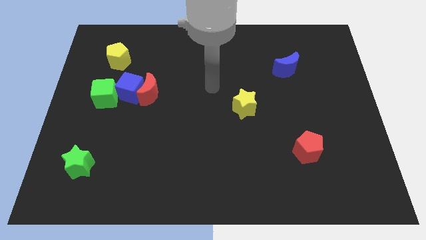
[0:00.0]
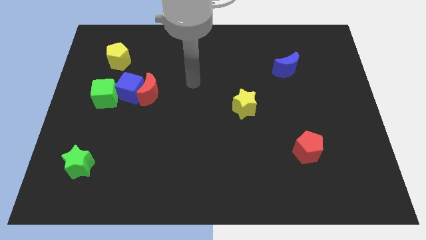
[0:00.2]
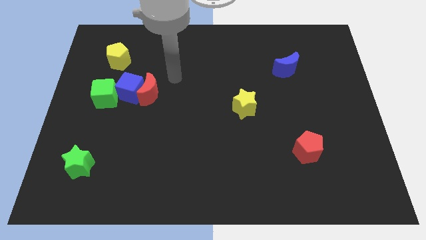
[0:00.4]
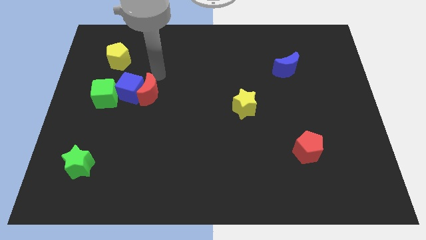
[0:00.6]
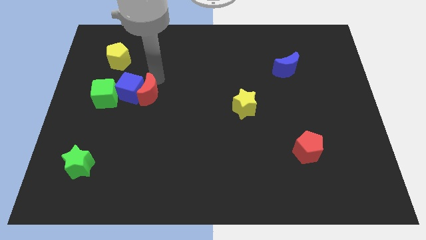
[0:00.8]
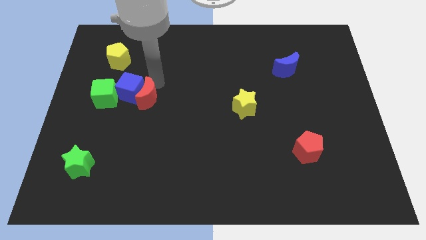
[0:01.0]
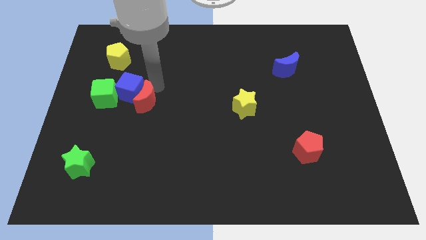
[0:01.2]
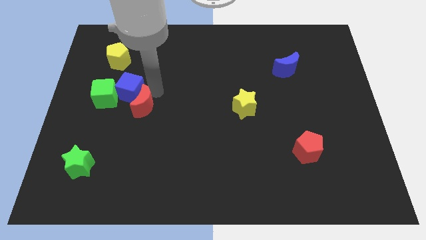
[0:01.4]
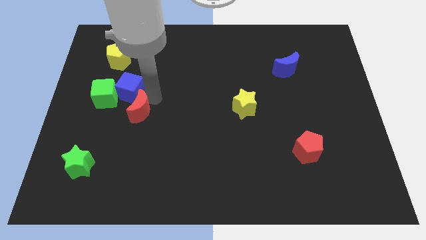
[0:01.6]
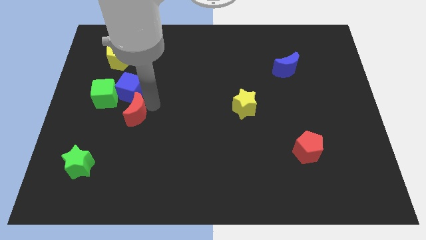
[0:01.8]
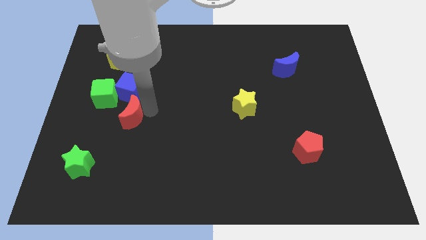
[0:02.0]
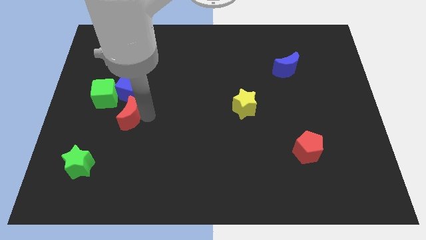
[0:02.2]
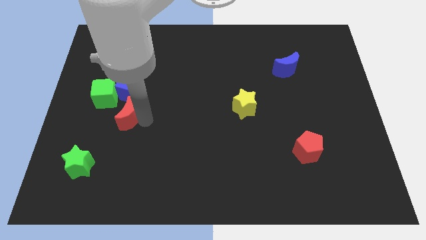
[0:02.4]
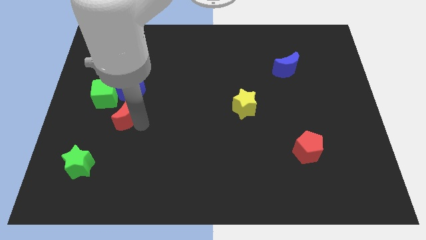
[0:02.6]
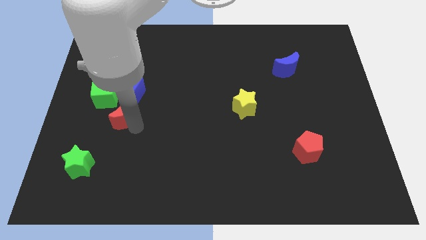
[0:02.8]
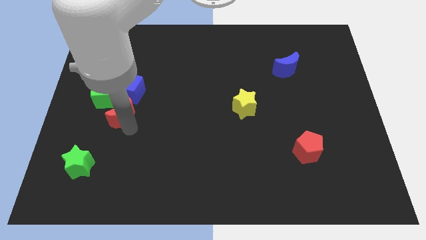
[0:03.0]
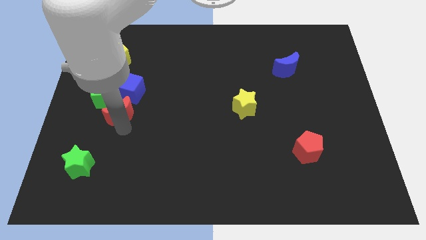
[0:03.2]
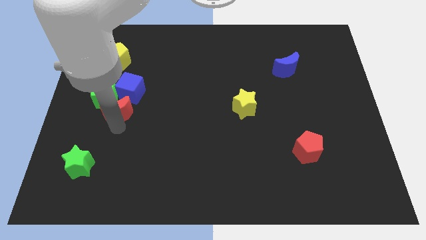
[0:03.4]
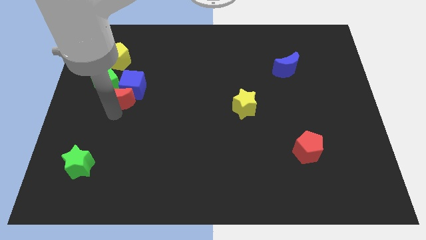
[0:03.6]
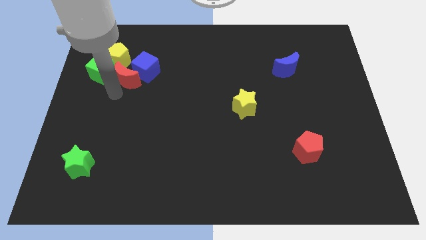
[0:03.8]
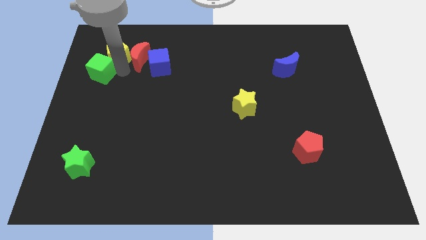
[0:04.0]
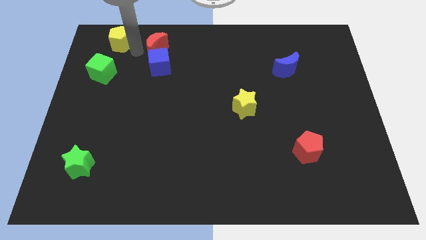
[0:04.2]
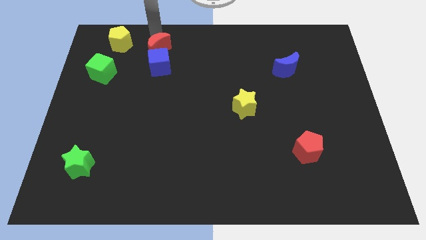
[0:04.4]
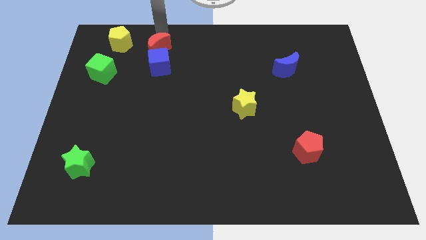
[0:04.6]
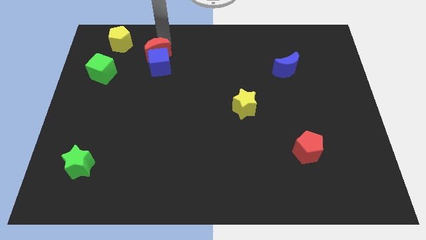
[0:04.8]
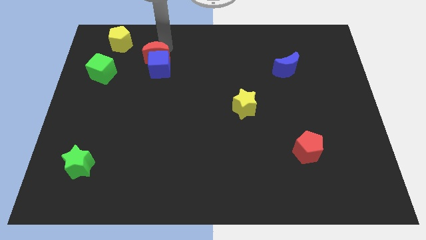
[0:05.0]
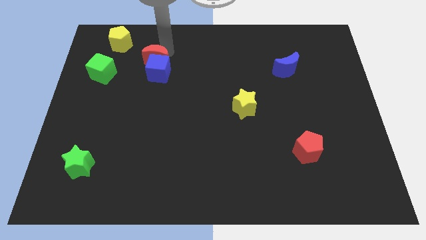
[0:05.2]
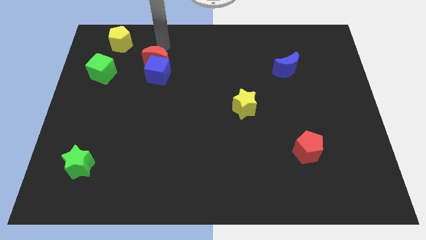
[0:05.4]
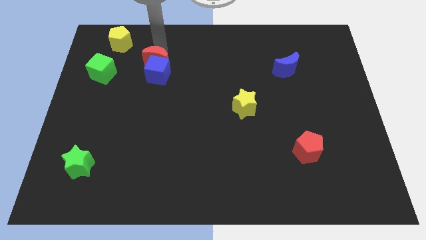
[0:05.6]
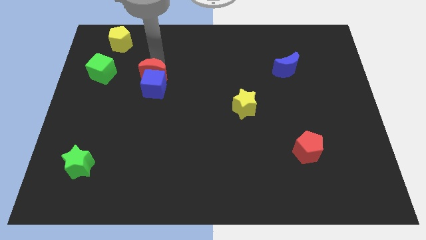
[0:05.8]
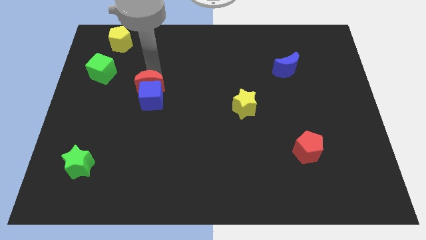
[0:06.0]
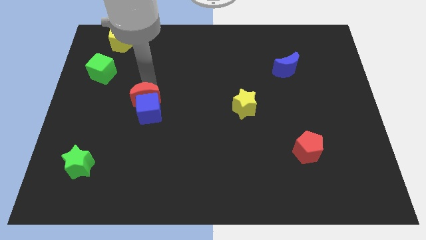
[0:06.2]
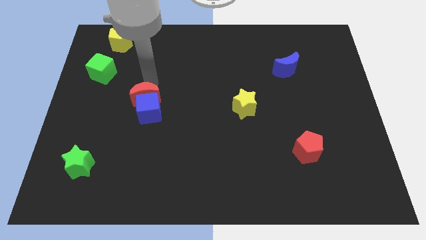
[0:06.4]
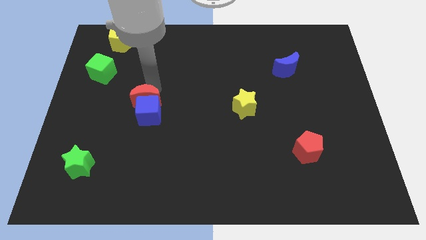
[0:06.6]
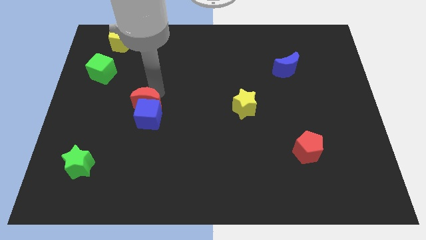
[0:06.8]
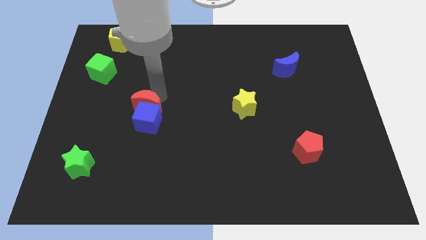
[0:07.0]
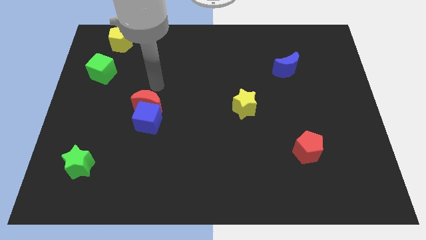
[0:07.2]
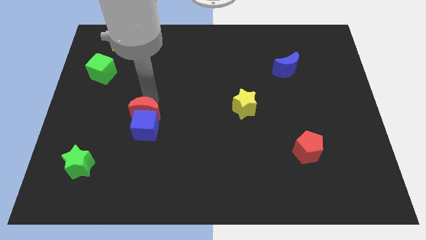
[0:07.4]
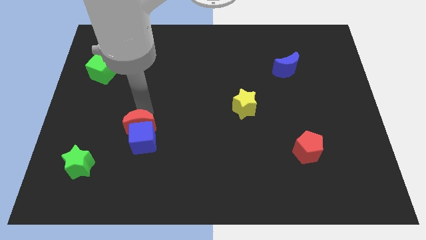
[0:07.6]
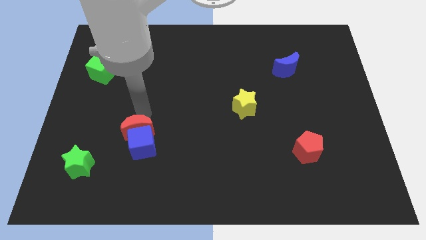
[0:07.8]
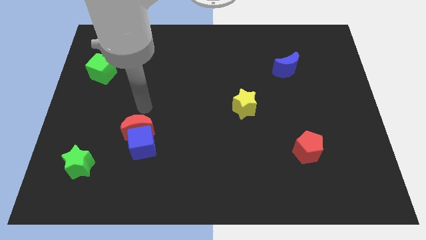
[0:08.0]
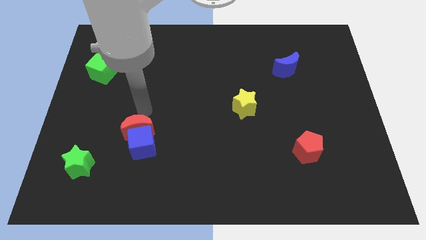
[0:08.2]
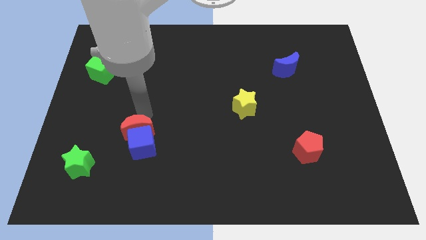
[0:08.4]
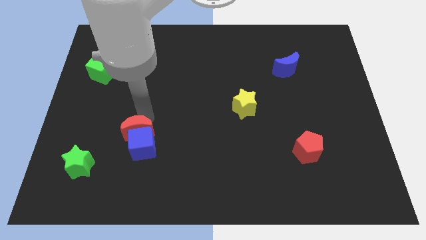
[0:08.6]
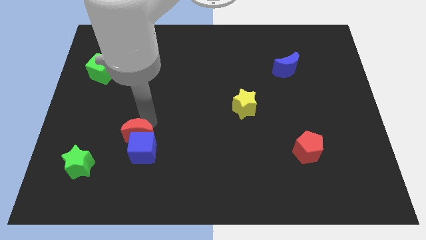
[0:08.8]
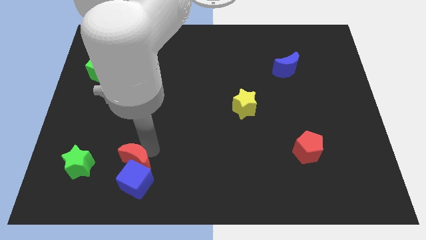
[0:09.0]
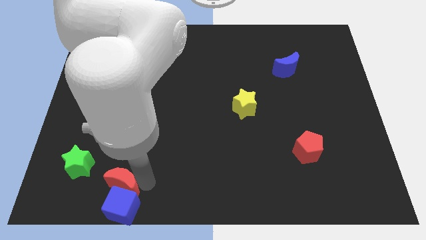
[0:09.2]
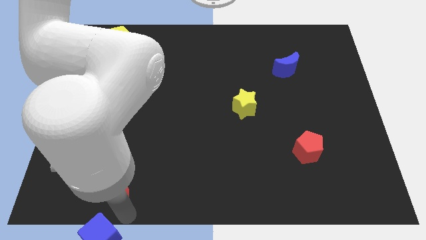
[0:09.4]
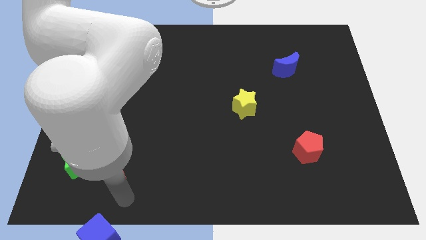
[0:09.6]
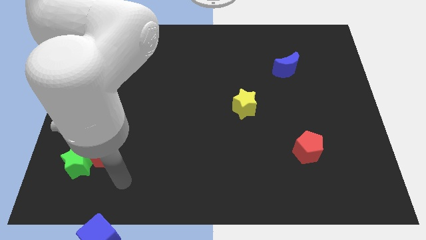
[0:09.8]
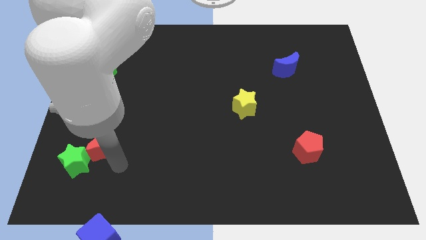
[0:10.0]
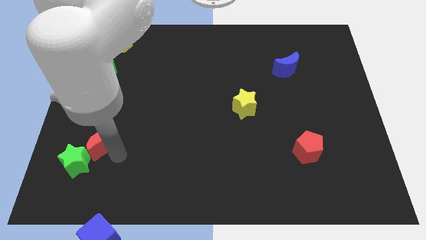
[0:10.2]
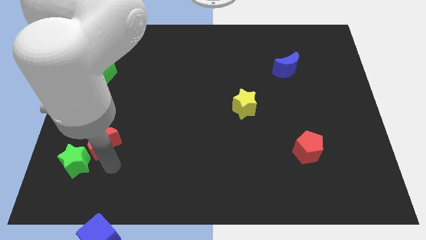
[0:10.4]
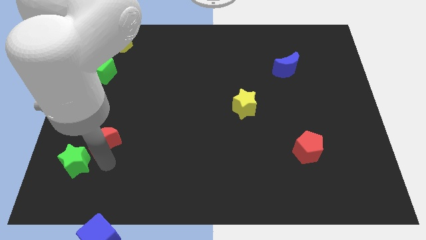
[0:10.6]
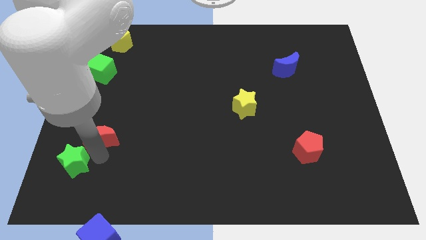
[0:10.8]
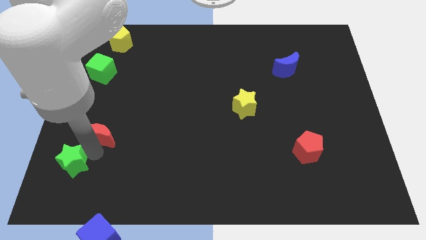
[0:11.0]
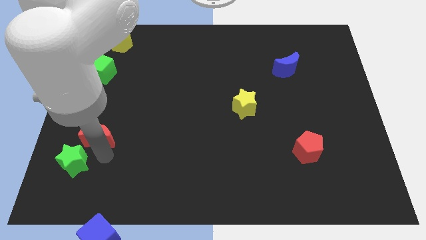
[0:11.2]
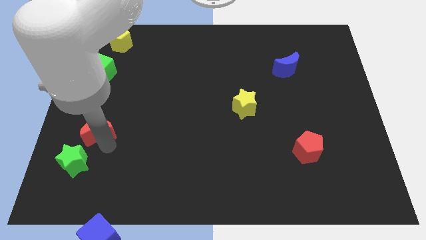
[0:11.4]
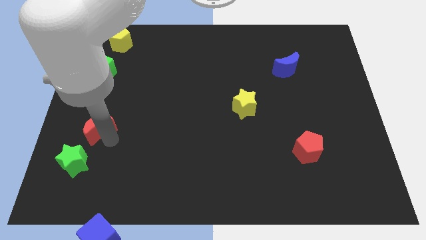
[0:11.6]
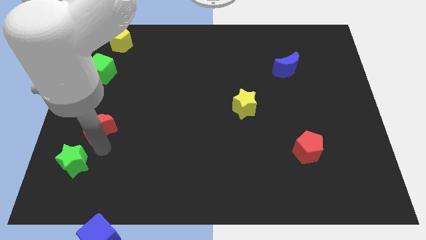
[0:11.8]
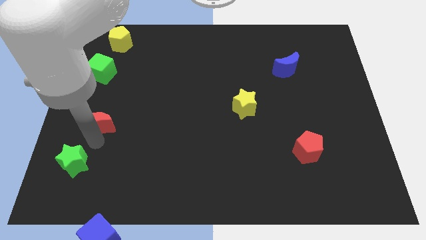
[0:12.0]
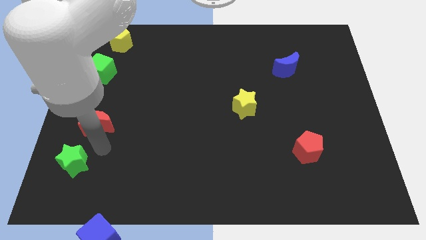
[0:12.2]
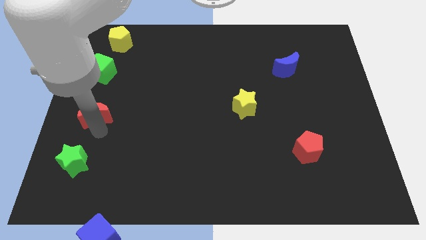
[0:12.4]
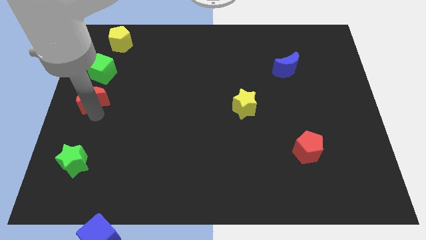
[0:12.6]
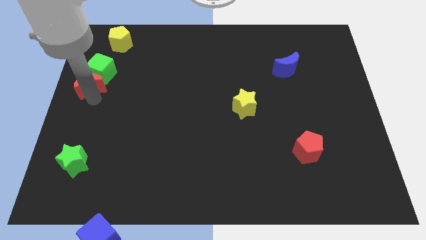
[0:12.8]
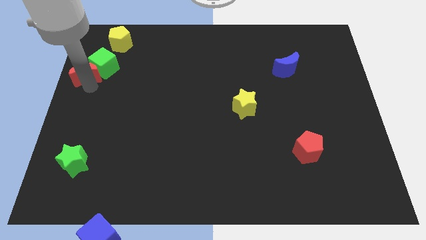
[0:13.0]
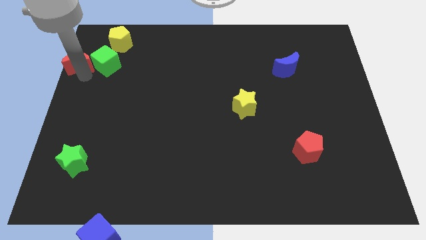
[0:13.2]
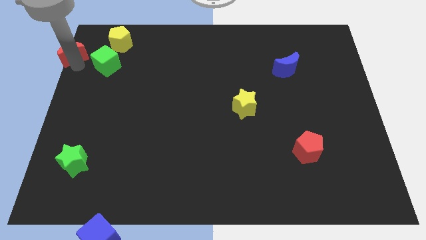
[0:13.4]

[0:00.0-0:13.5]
put the red moon to the top left
